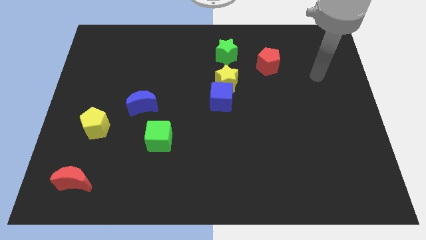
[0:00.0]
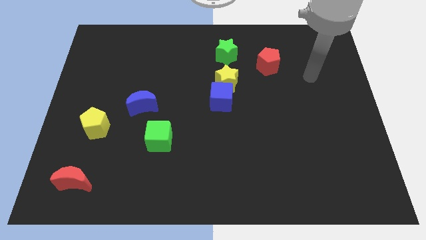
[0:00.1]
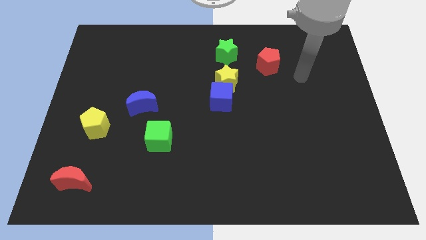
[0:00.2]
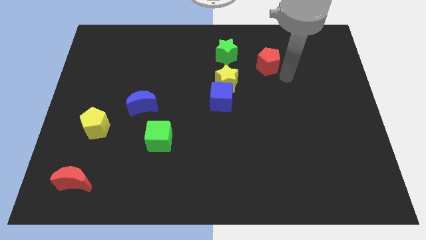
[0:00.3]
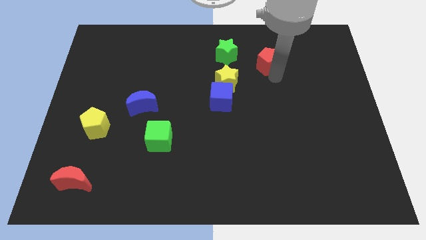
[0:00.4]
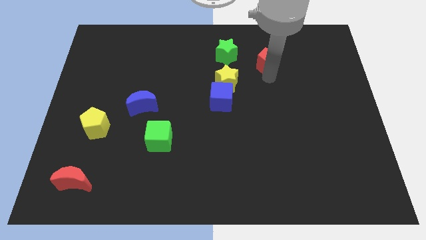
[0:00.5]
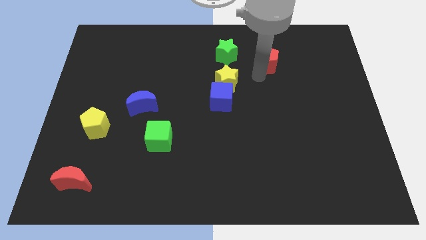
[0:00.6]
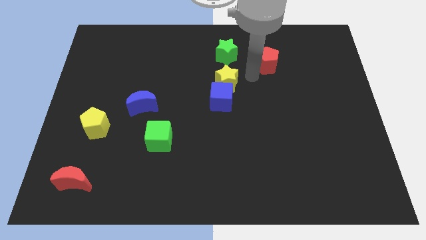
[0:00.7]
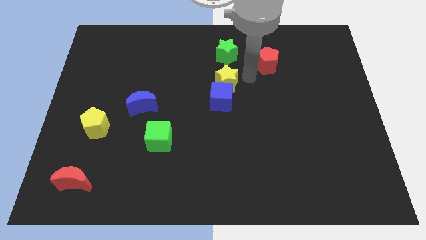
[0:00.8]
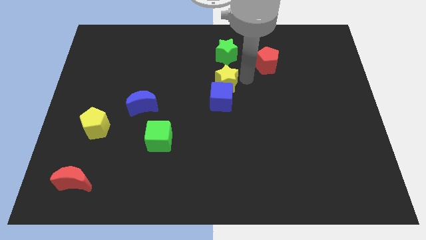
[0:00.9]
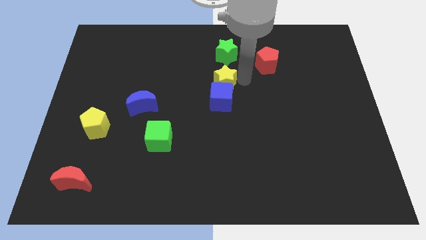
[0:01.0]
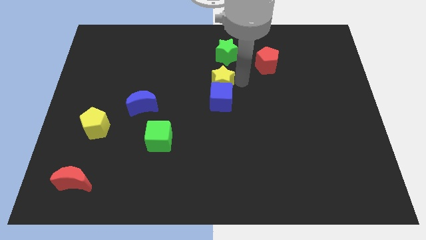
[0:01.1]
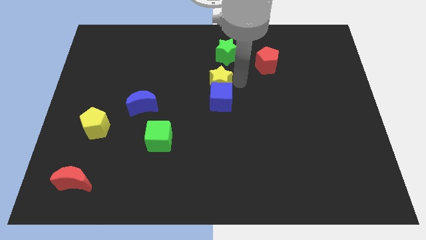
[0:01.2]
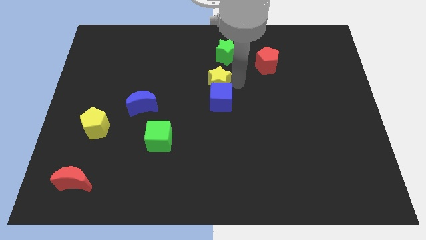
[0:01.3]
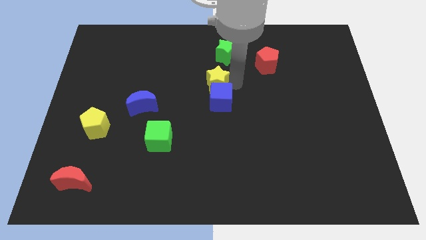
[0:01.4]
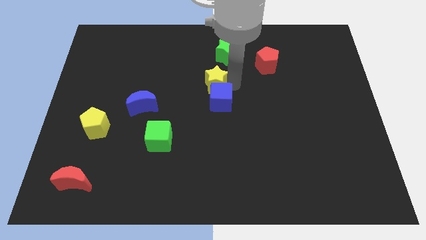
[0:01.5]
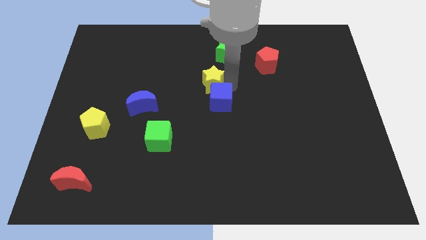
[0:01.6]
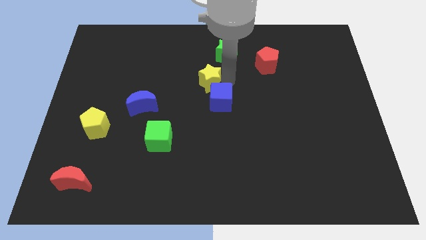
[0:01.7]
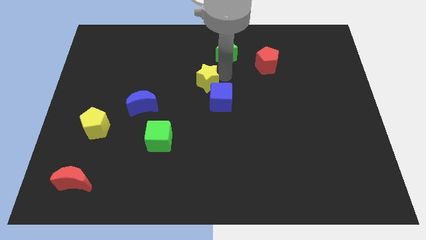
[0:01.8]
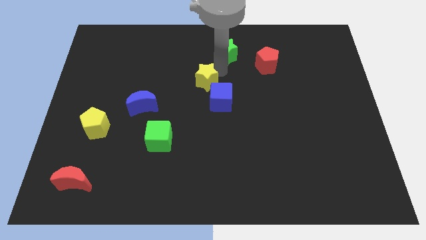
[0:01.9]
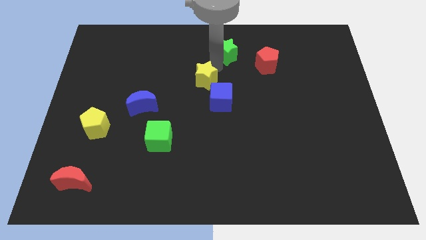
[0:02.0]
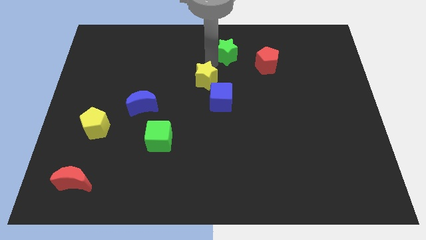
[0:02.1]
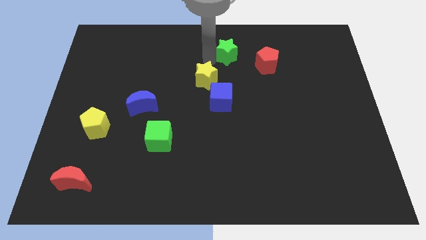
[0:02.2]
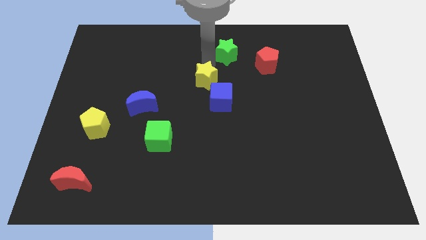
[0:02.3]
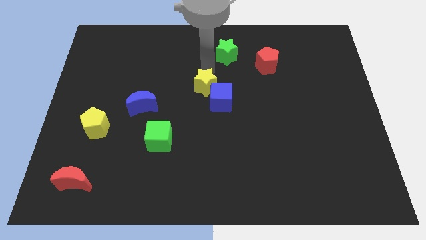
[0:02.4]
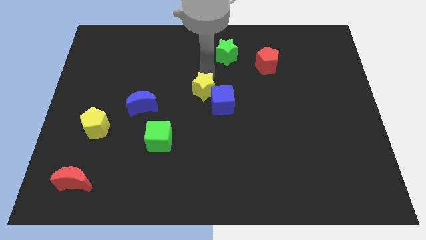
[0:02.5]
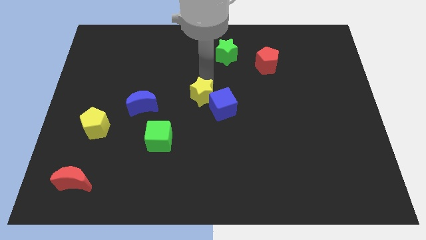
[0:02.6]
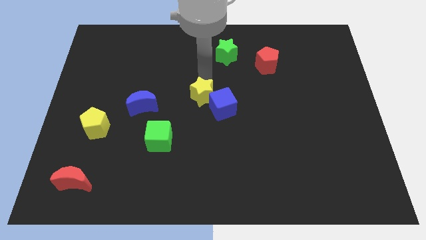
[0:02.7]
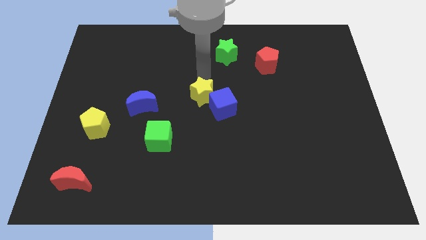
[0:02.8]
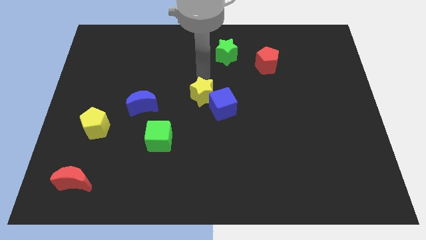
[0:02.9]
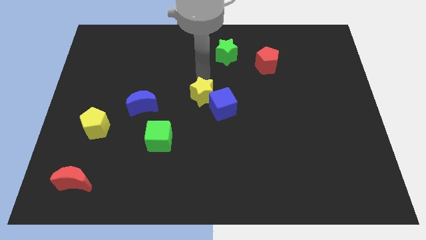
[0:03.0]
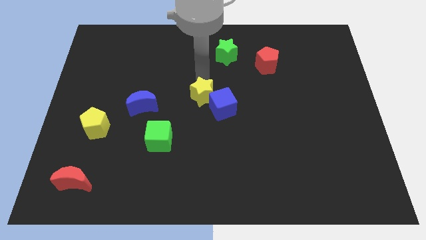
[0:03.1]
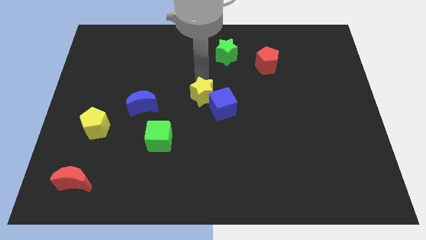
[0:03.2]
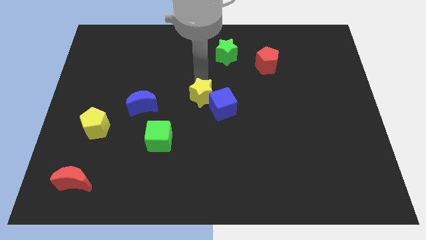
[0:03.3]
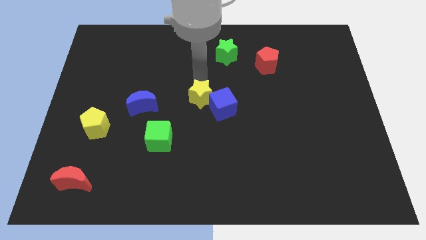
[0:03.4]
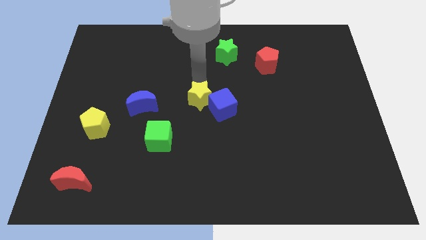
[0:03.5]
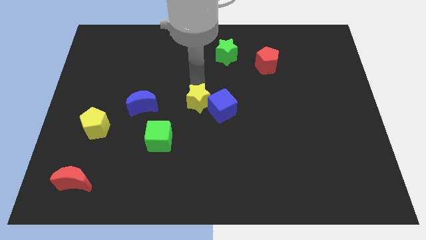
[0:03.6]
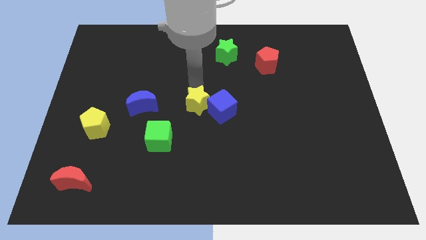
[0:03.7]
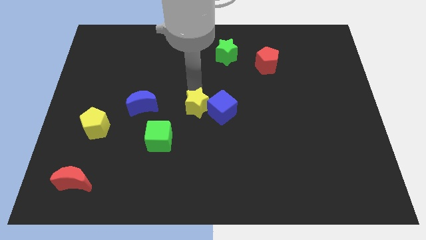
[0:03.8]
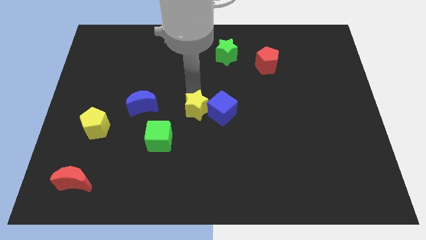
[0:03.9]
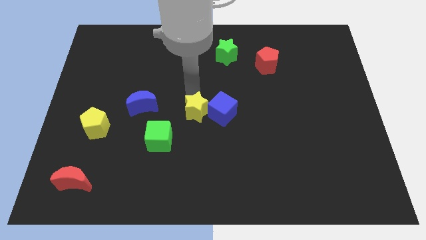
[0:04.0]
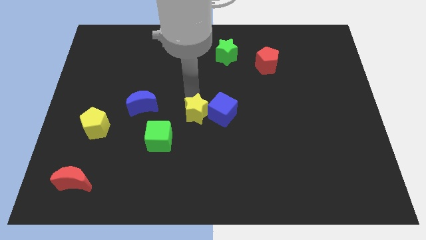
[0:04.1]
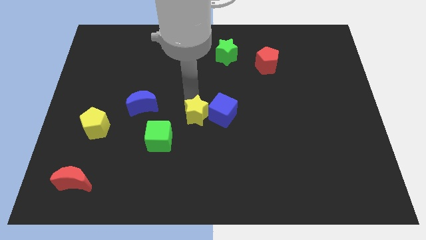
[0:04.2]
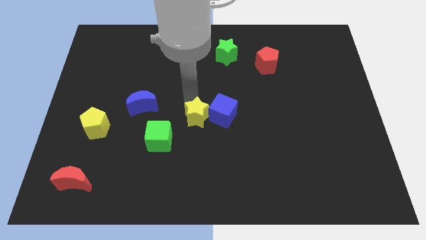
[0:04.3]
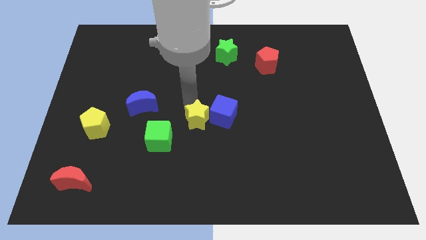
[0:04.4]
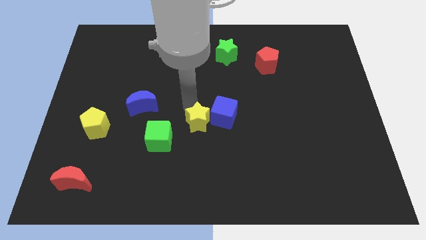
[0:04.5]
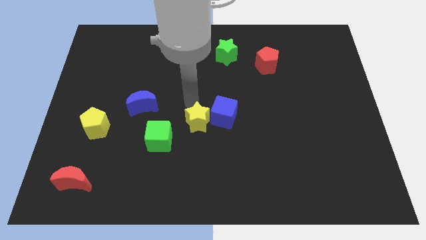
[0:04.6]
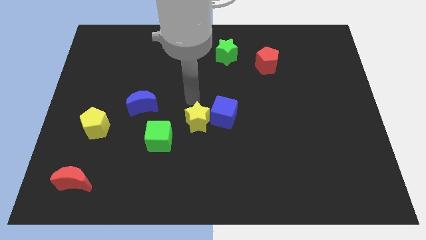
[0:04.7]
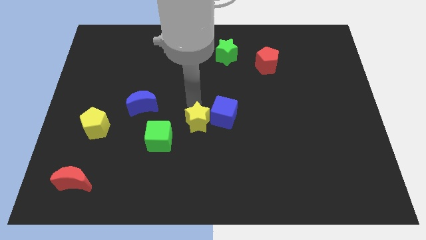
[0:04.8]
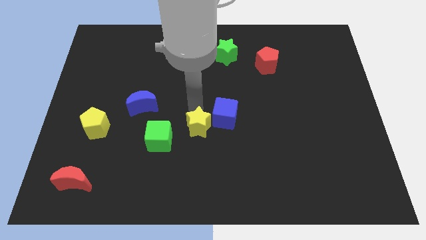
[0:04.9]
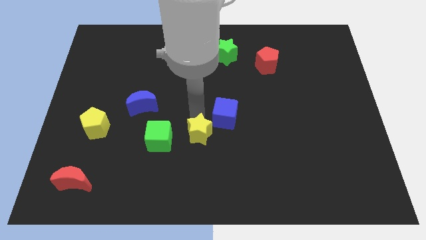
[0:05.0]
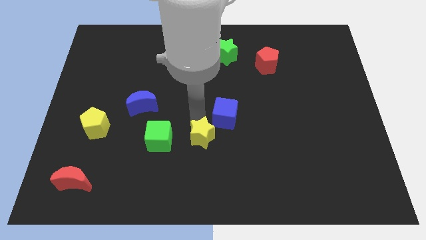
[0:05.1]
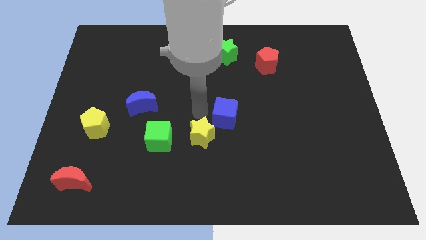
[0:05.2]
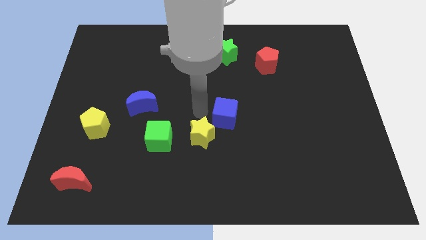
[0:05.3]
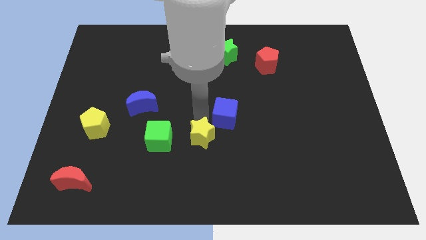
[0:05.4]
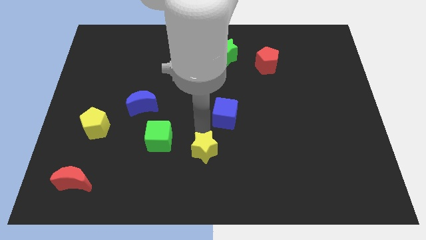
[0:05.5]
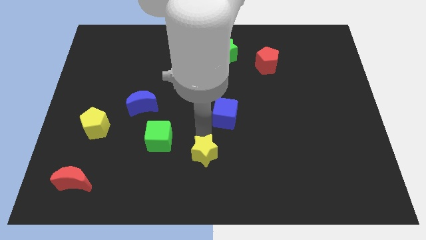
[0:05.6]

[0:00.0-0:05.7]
put the yellow star to the bottom
